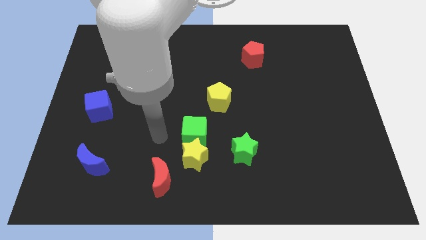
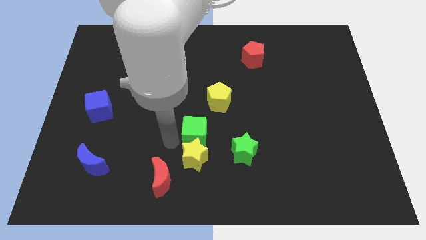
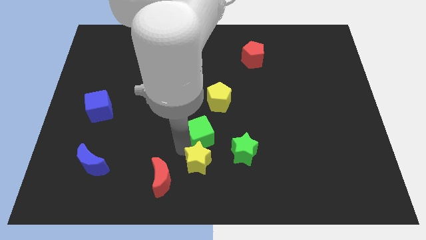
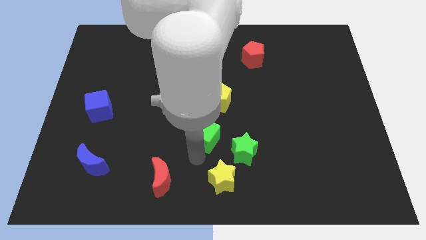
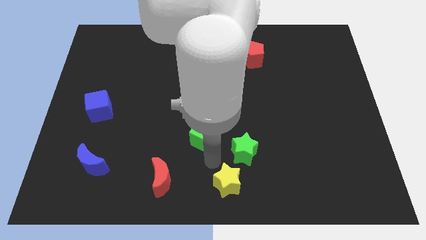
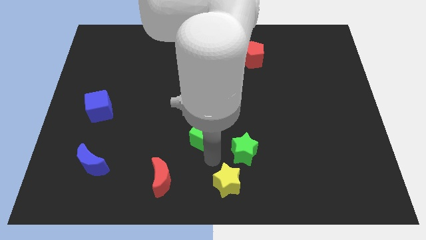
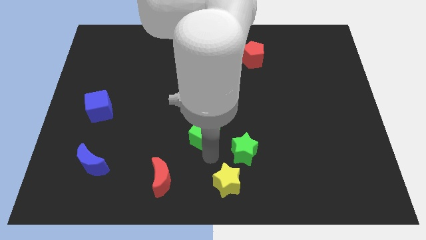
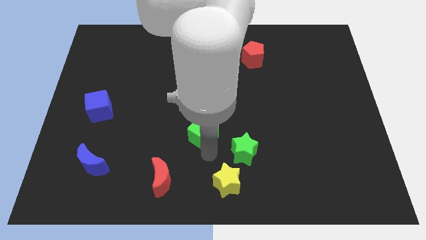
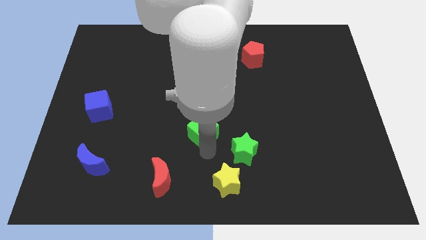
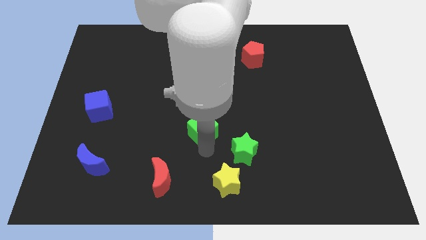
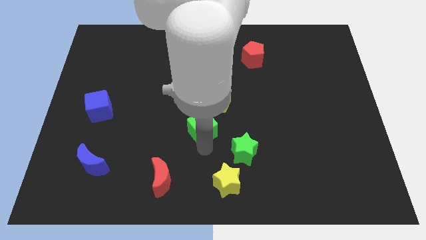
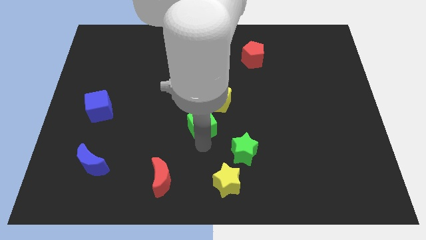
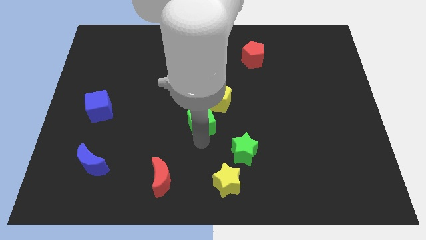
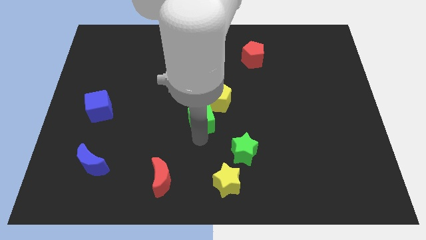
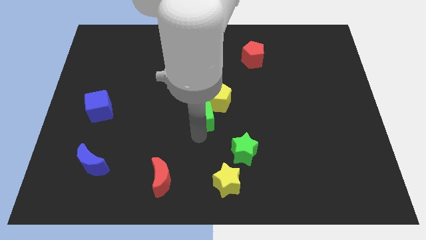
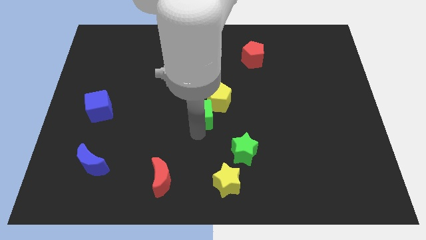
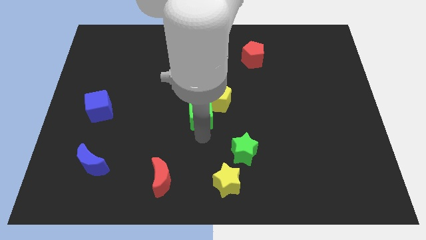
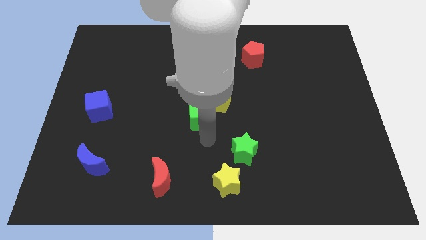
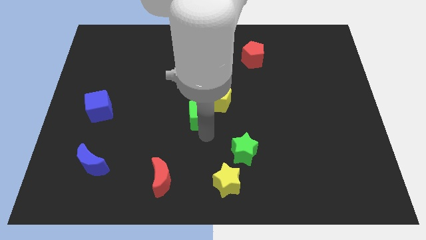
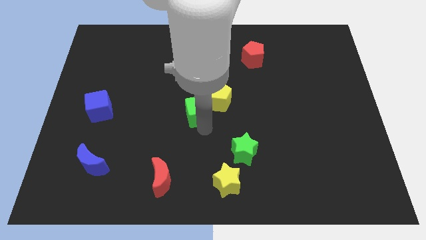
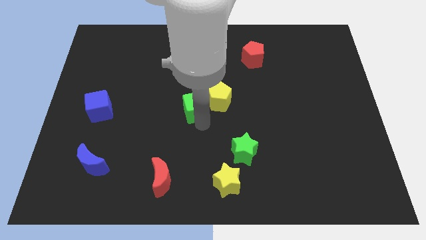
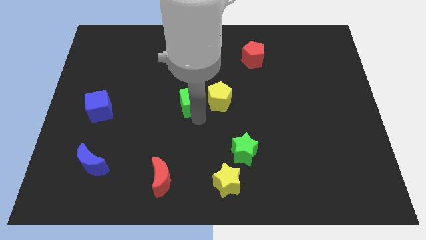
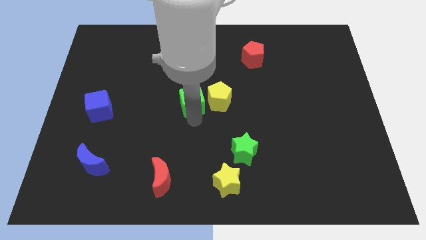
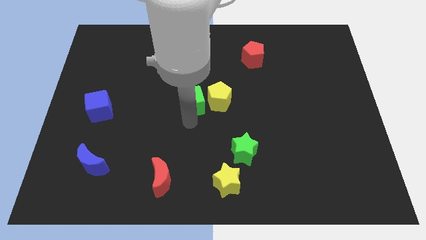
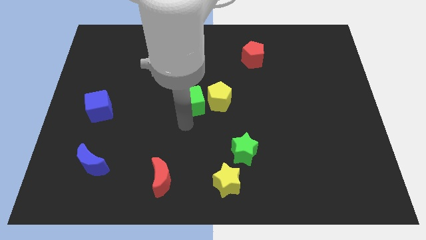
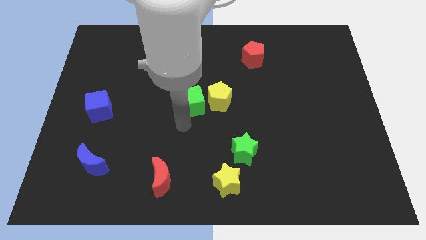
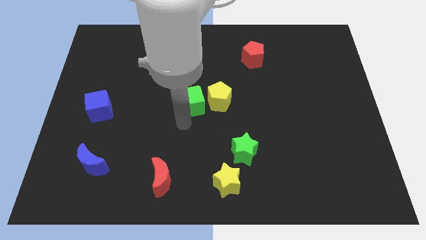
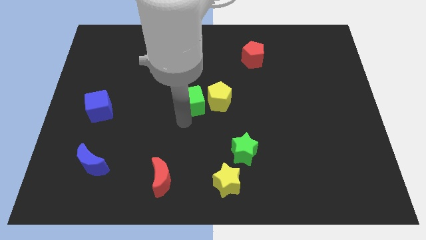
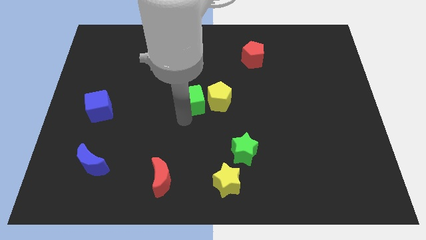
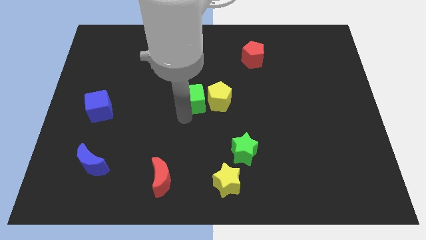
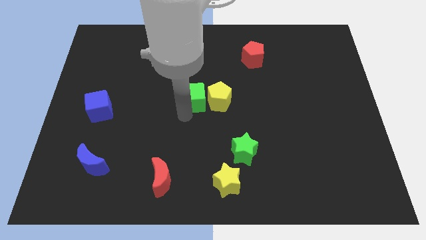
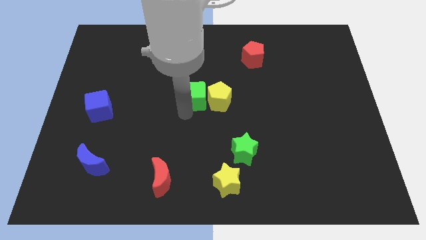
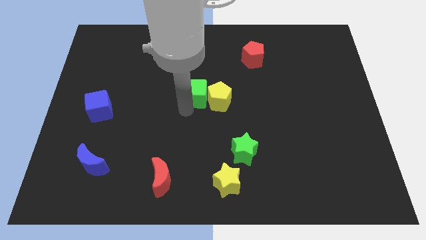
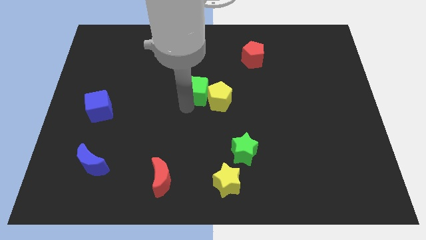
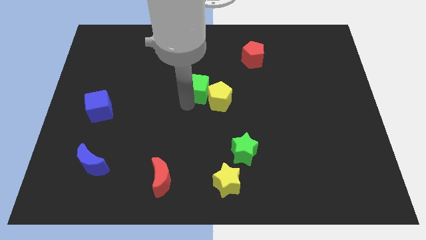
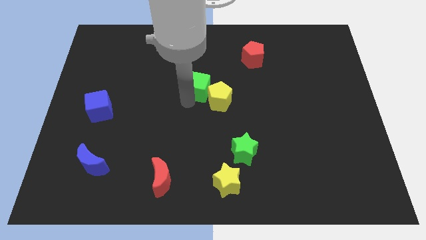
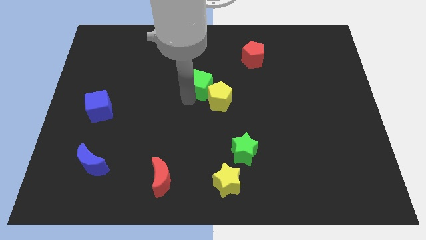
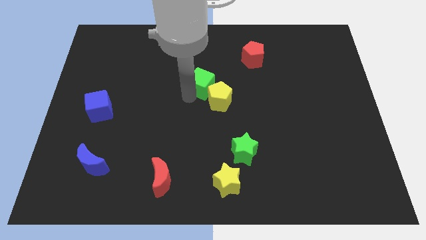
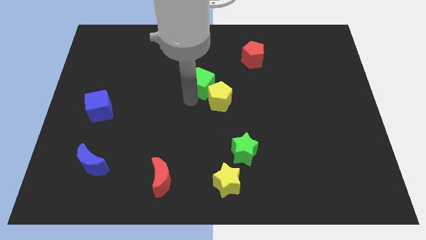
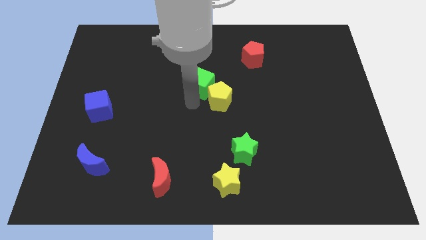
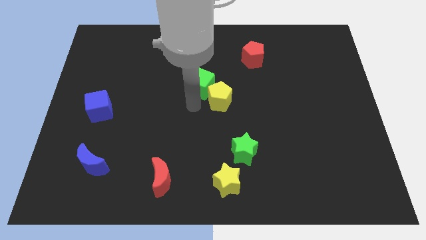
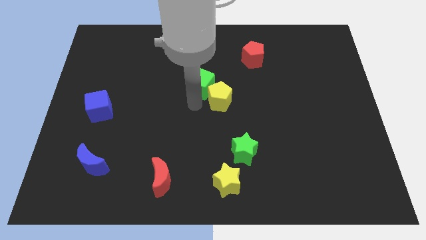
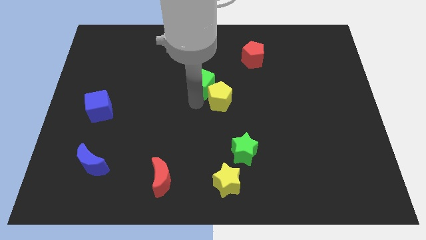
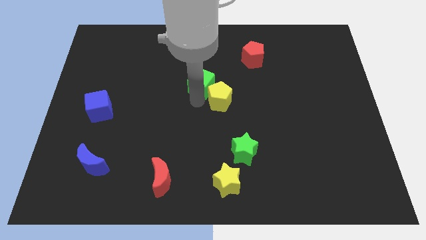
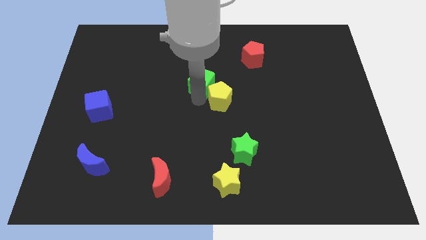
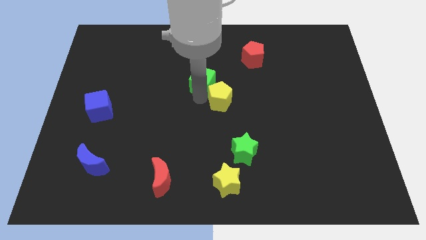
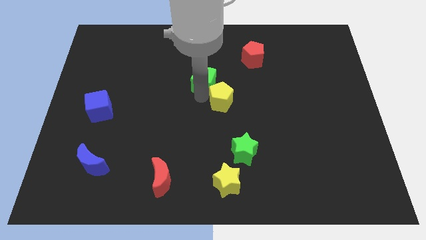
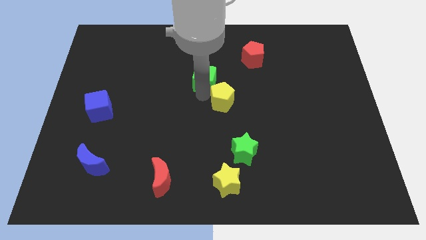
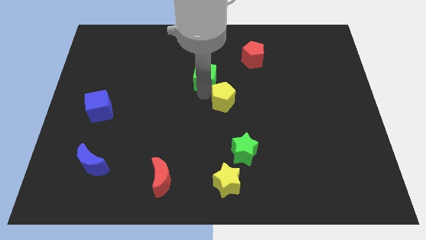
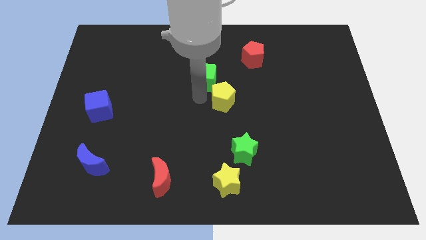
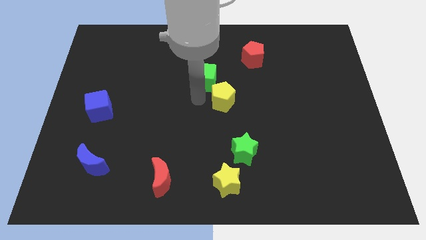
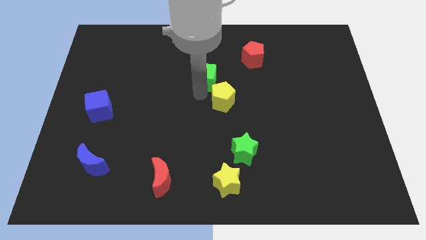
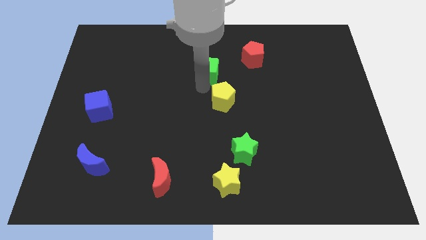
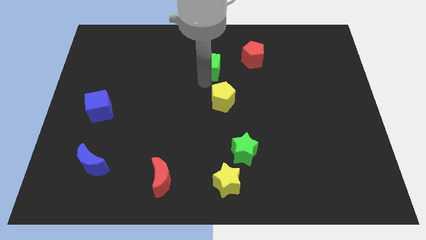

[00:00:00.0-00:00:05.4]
slide the green cube to the left side of the red pentagon

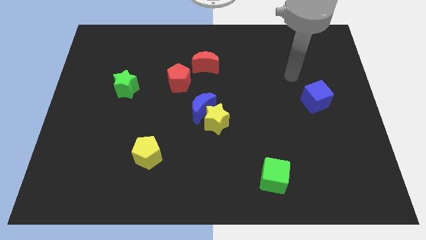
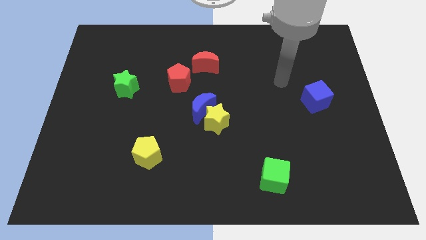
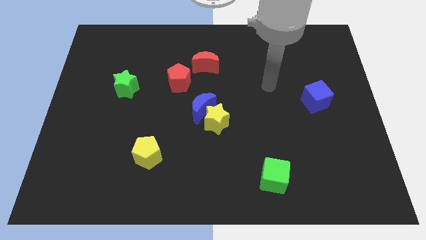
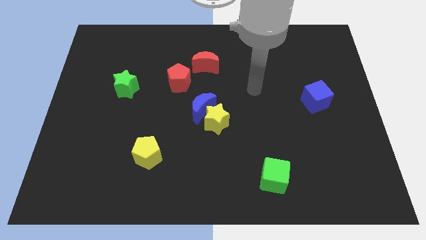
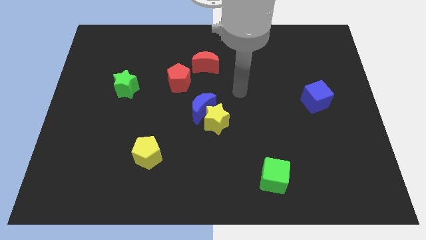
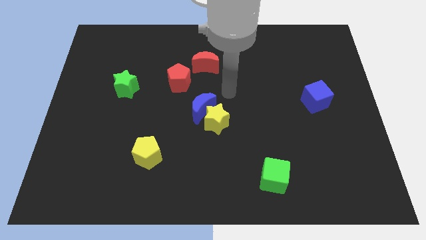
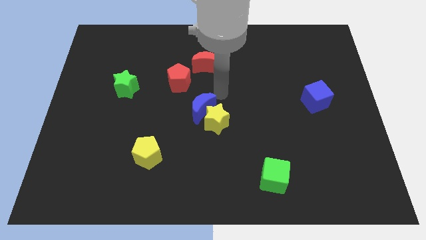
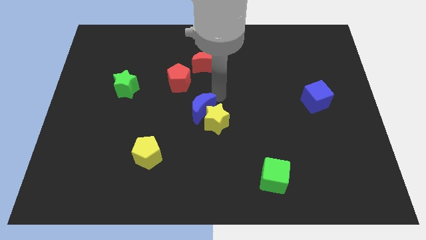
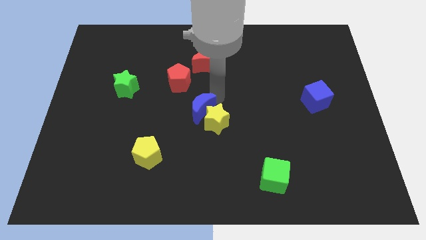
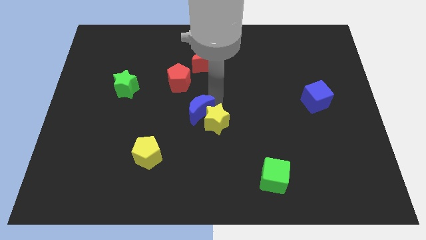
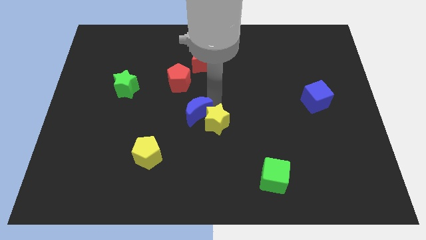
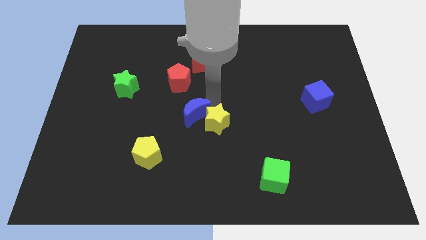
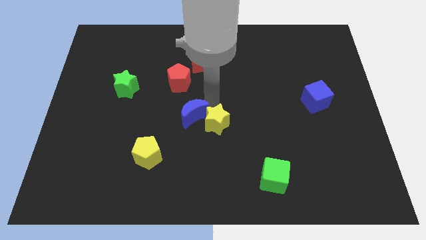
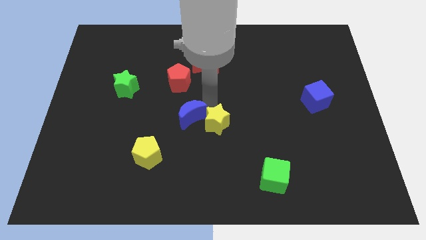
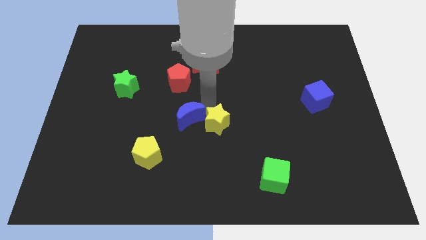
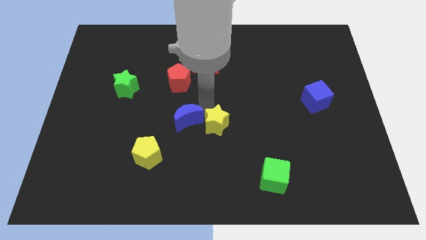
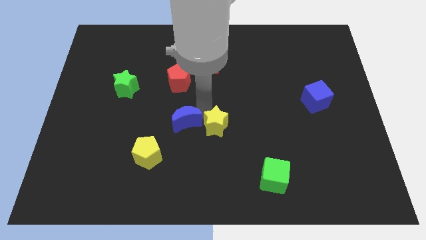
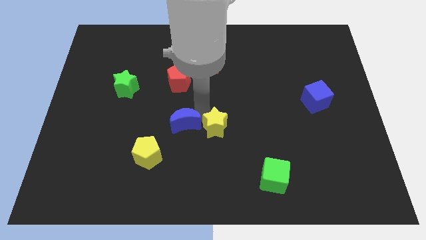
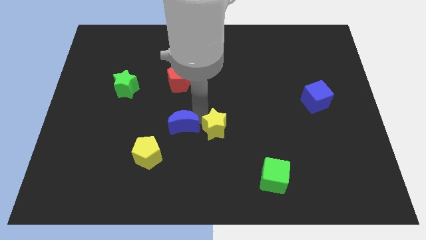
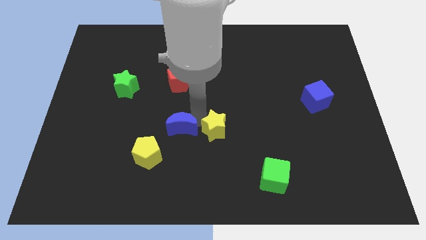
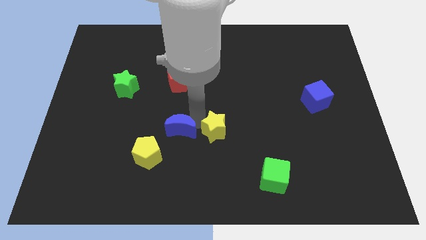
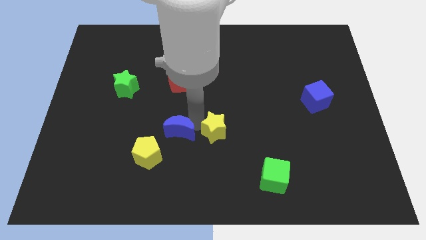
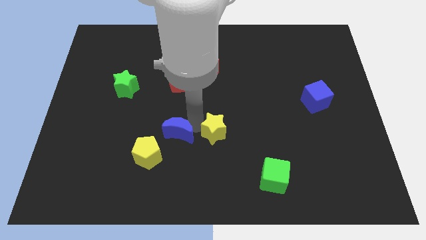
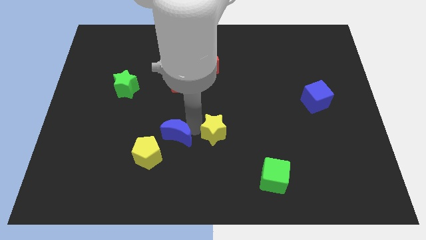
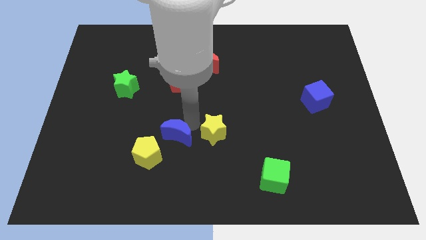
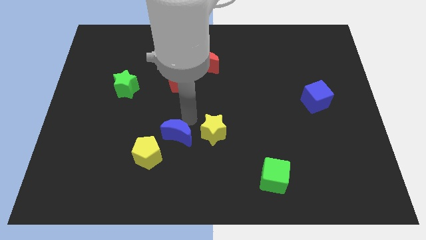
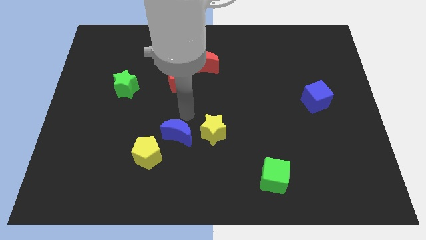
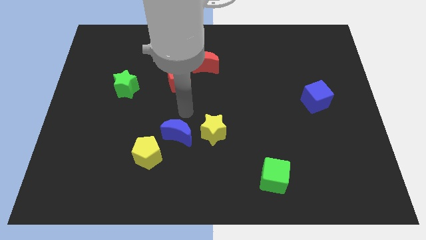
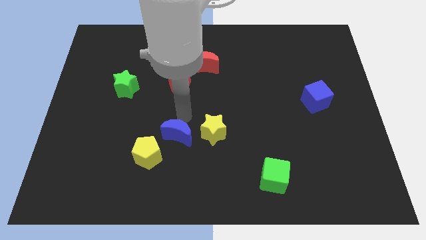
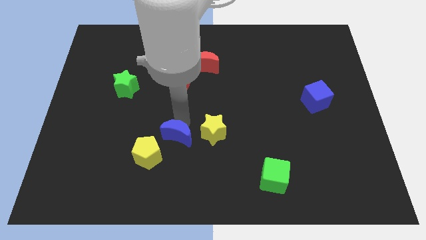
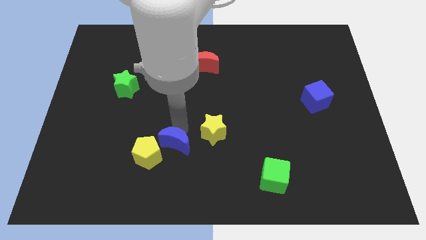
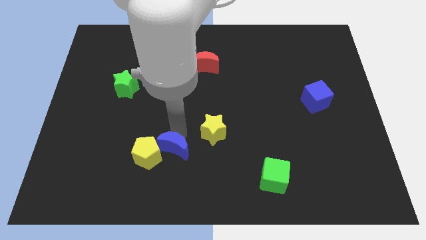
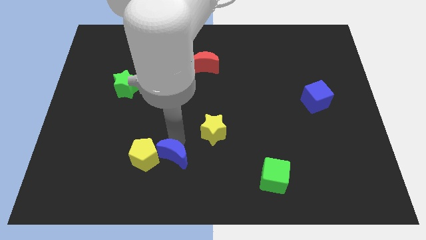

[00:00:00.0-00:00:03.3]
slide the blue moon to the bottom right side of the yellow pentagon
